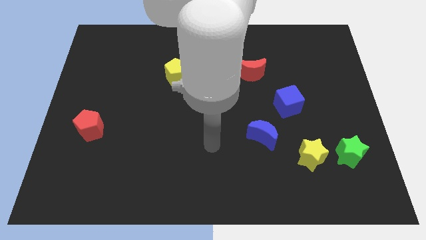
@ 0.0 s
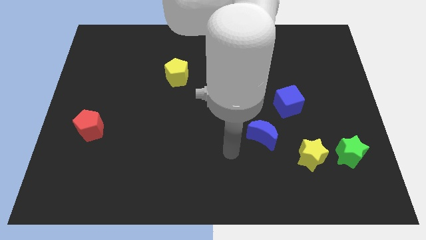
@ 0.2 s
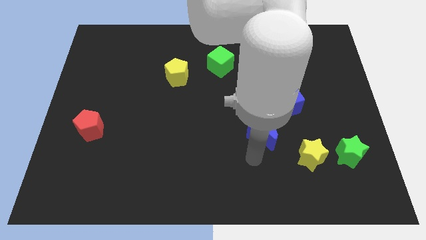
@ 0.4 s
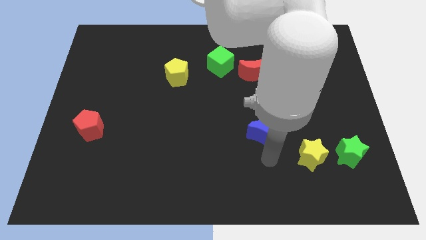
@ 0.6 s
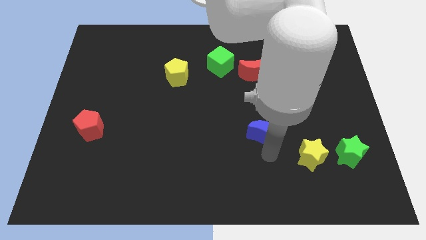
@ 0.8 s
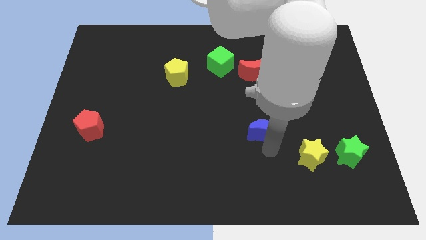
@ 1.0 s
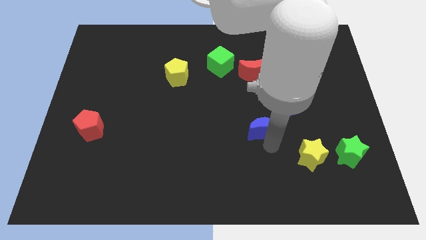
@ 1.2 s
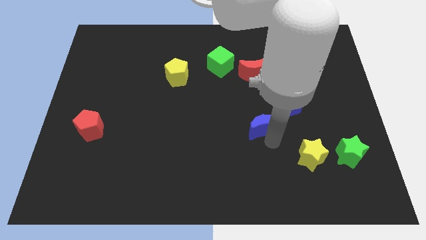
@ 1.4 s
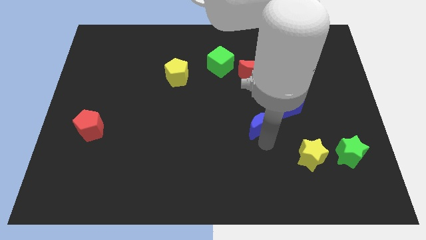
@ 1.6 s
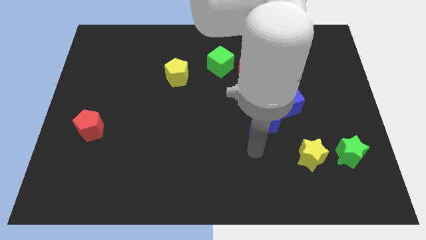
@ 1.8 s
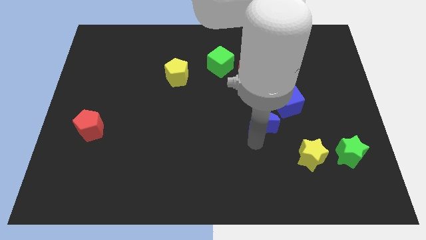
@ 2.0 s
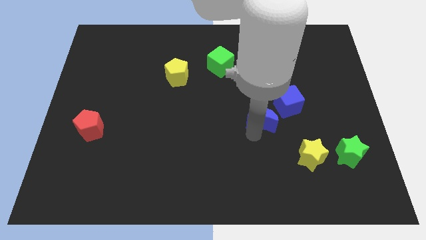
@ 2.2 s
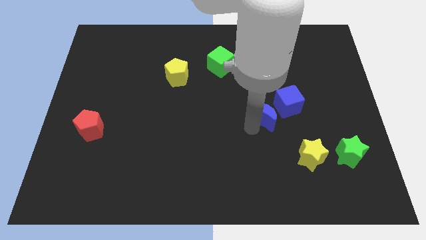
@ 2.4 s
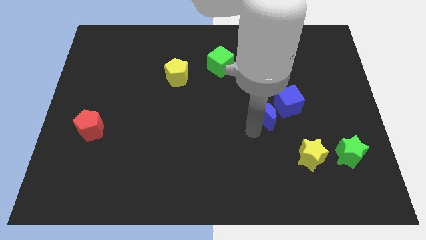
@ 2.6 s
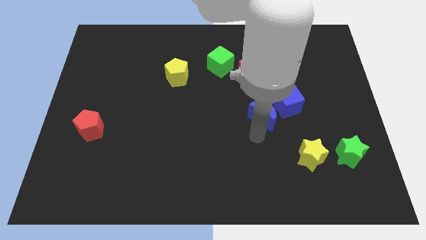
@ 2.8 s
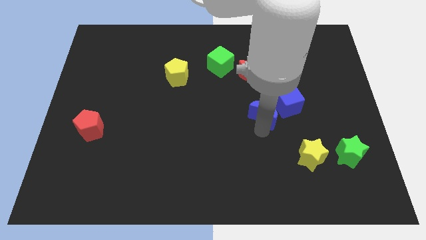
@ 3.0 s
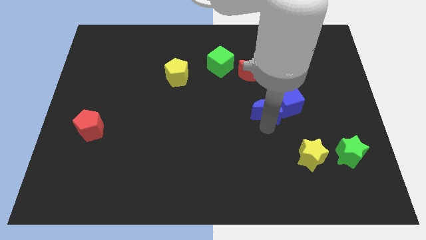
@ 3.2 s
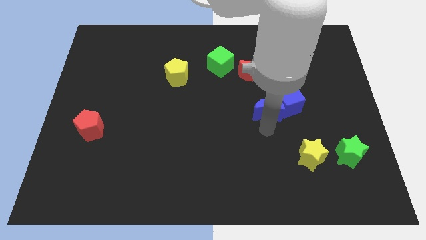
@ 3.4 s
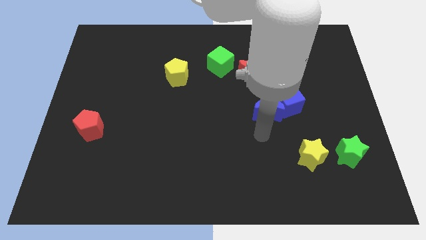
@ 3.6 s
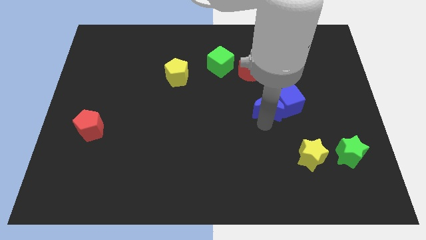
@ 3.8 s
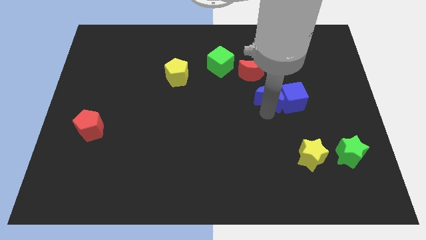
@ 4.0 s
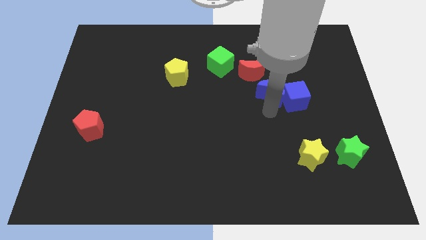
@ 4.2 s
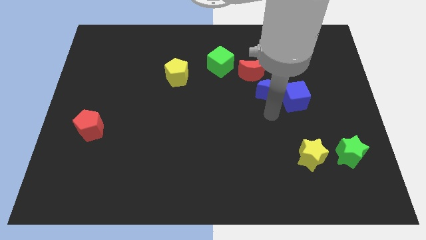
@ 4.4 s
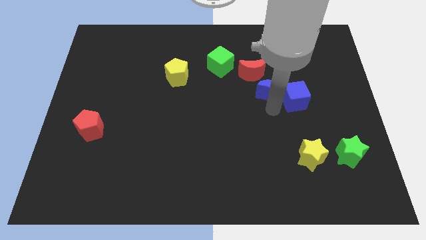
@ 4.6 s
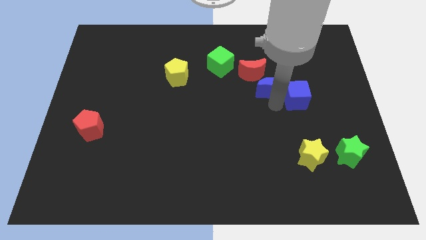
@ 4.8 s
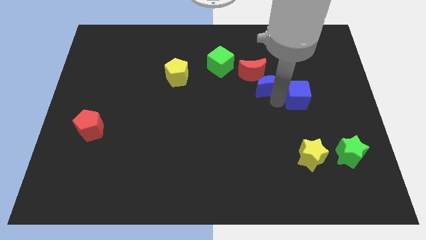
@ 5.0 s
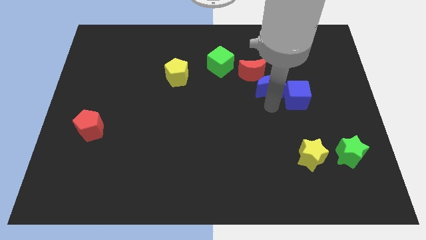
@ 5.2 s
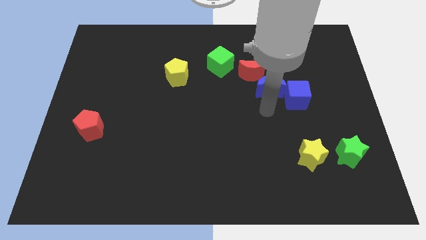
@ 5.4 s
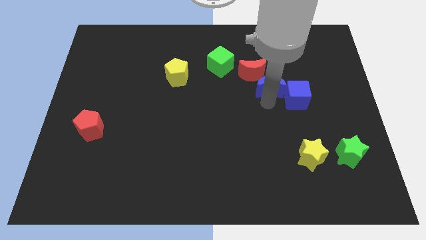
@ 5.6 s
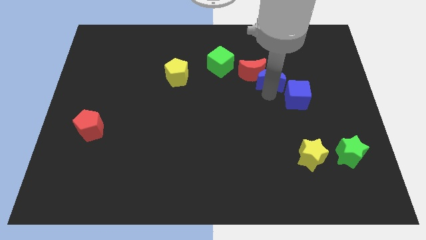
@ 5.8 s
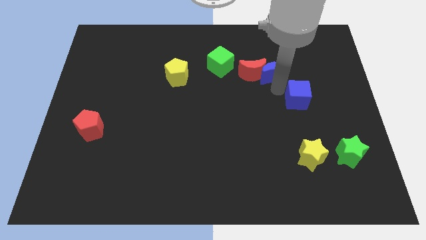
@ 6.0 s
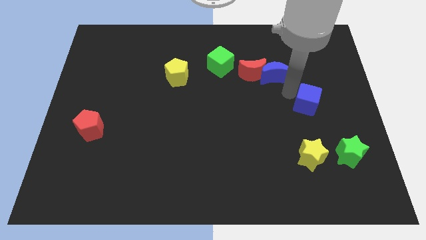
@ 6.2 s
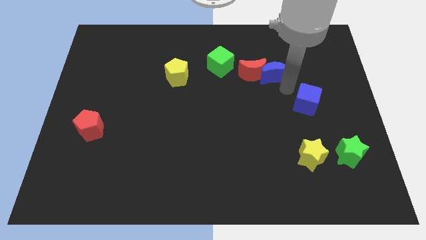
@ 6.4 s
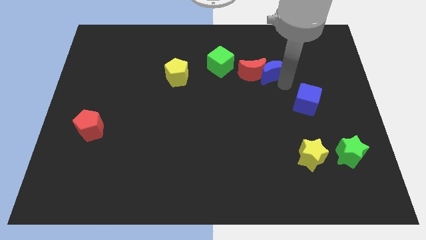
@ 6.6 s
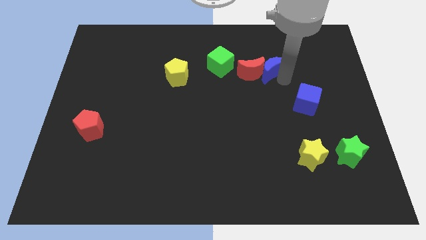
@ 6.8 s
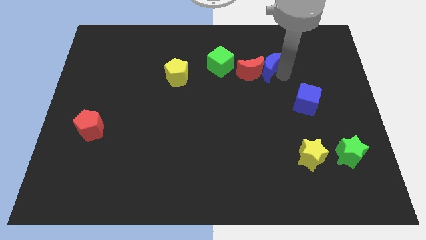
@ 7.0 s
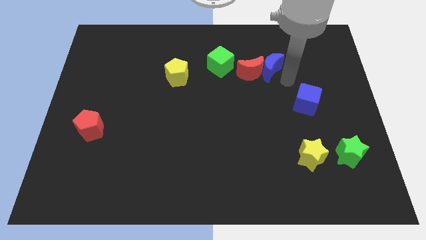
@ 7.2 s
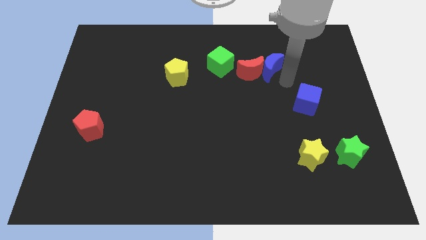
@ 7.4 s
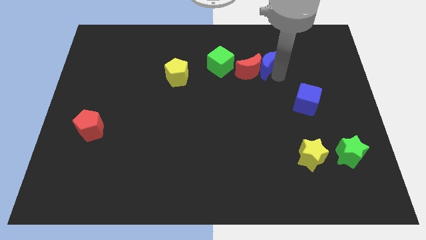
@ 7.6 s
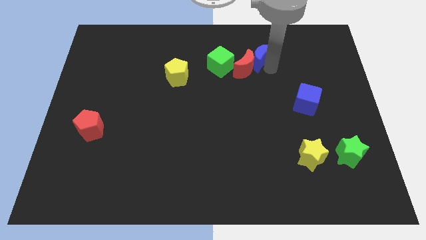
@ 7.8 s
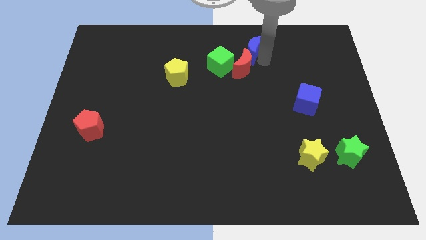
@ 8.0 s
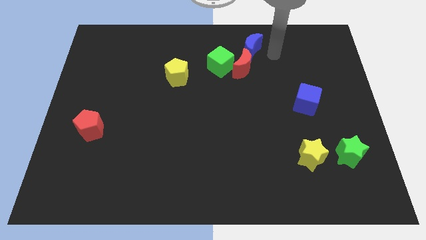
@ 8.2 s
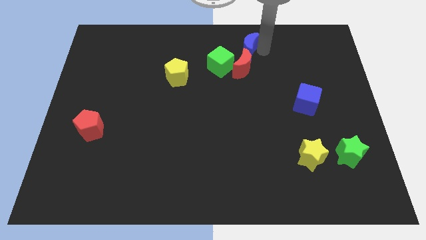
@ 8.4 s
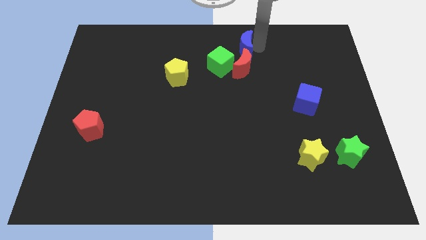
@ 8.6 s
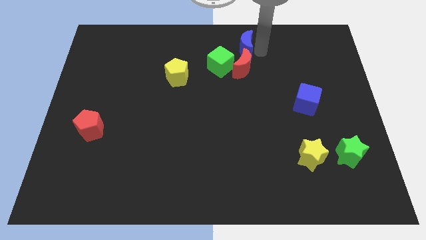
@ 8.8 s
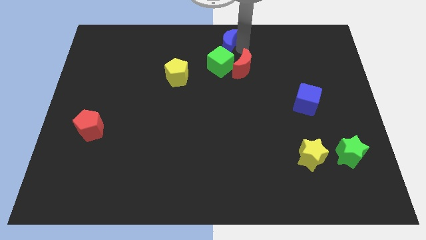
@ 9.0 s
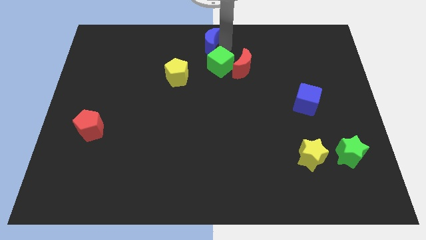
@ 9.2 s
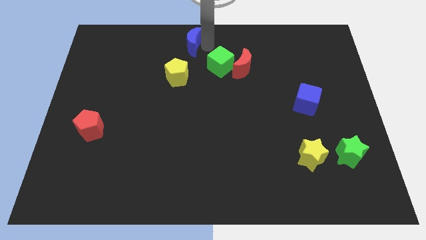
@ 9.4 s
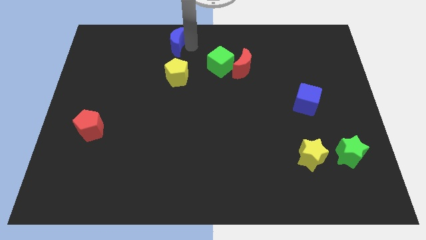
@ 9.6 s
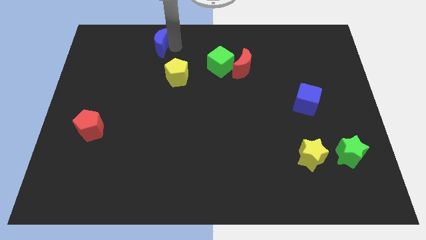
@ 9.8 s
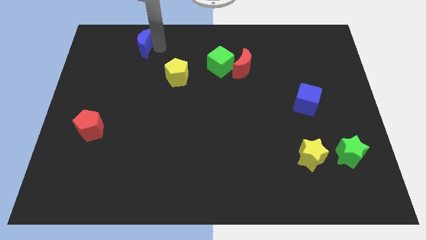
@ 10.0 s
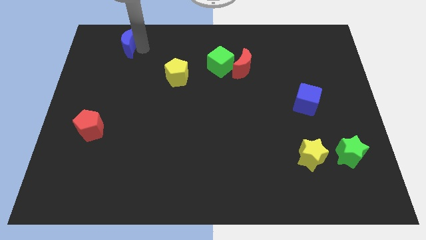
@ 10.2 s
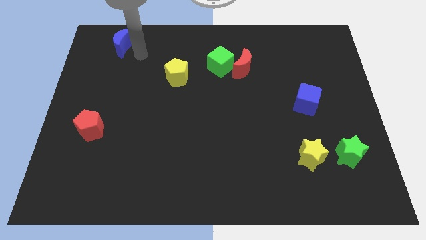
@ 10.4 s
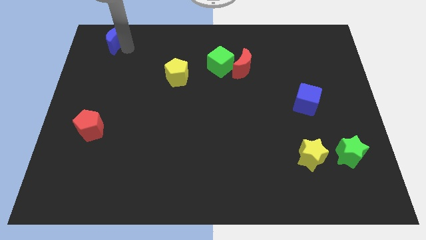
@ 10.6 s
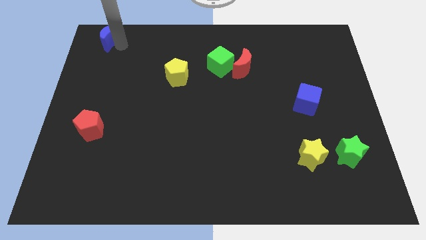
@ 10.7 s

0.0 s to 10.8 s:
push the blue moon to the top left
